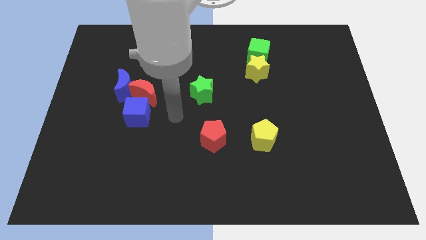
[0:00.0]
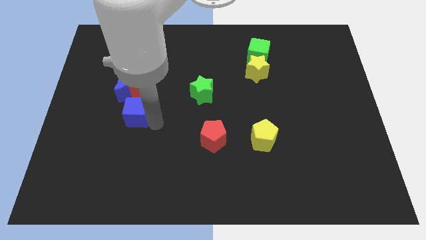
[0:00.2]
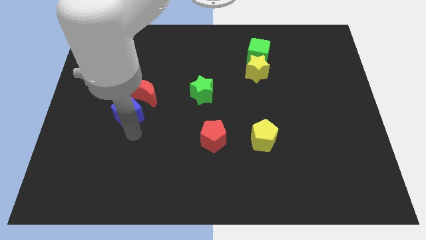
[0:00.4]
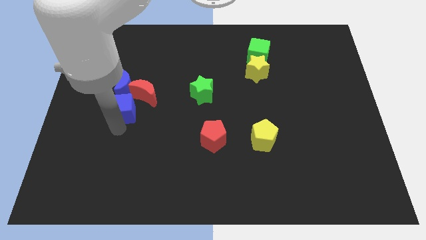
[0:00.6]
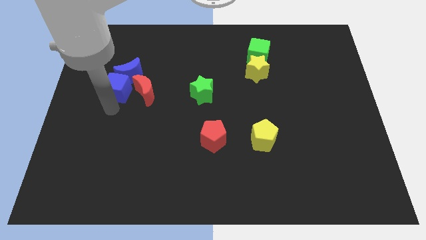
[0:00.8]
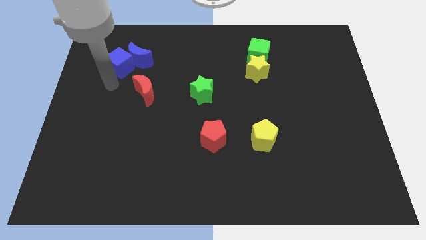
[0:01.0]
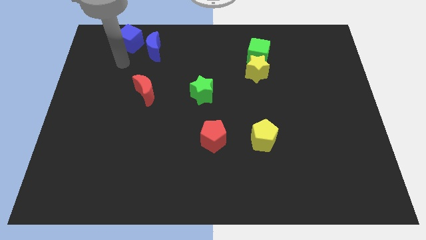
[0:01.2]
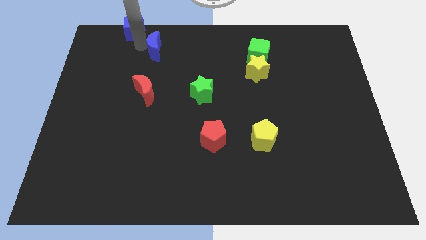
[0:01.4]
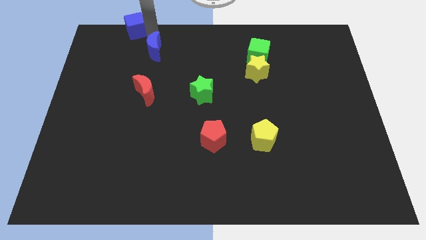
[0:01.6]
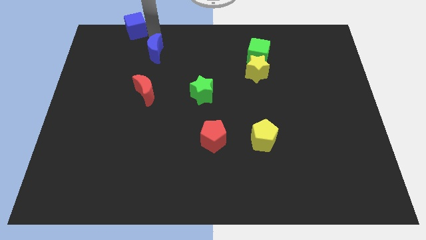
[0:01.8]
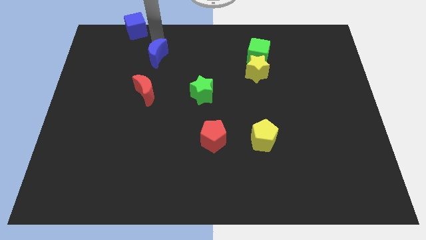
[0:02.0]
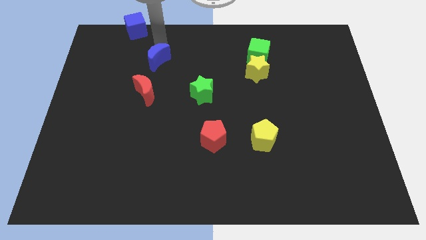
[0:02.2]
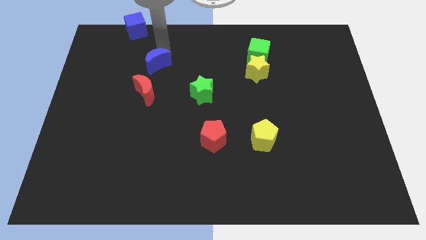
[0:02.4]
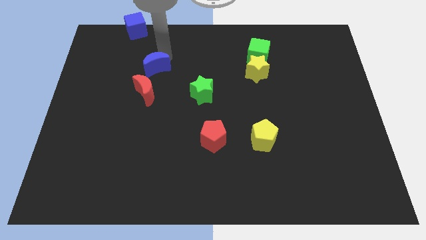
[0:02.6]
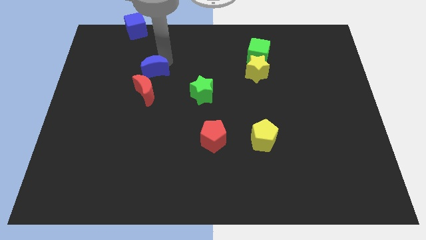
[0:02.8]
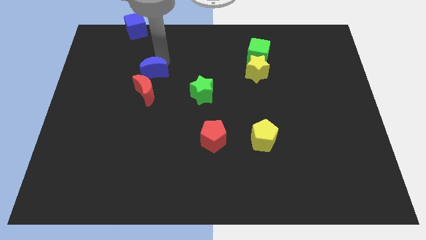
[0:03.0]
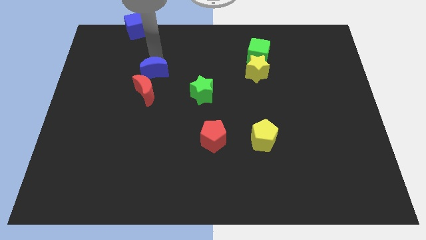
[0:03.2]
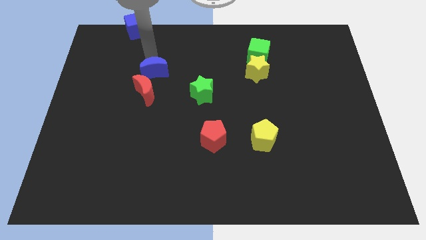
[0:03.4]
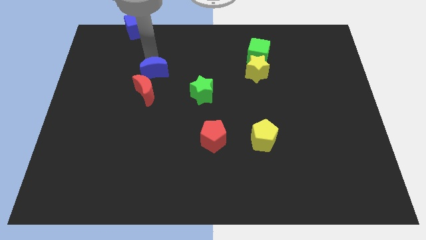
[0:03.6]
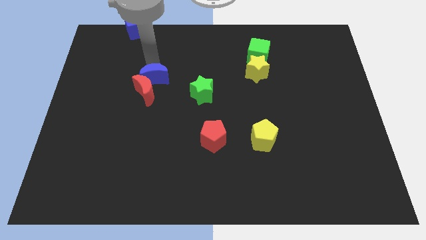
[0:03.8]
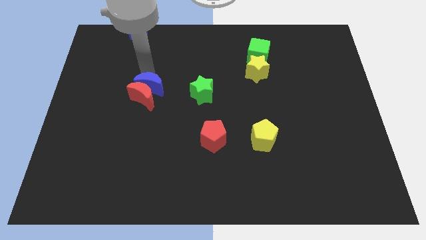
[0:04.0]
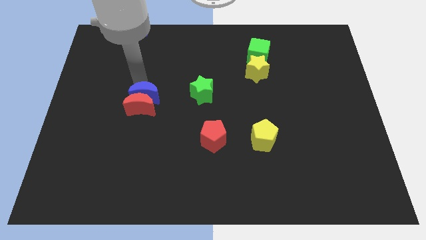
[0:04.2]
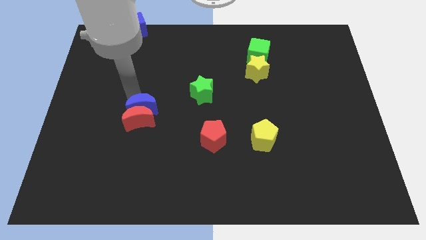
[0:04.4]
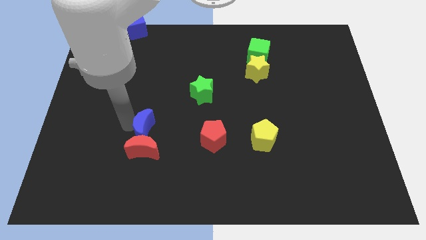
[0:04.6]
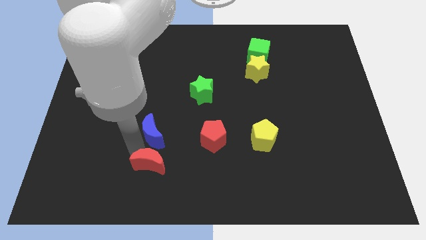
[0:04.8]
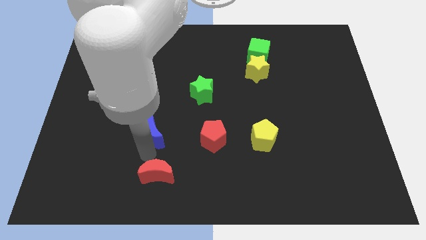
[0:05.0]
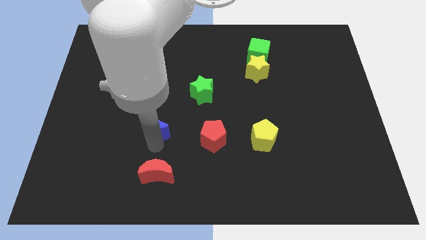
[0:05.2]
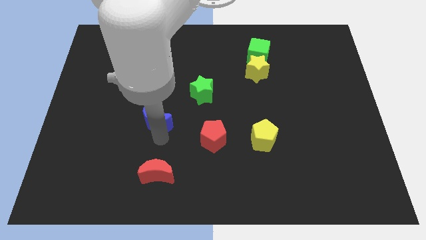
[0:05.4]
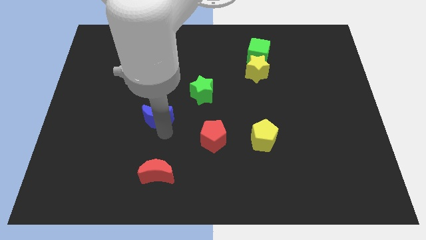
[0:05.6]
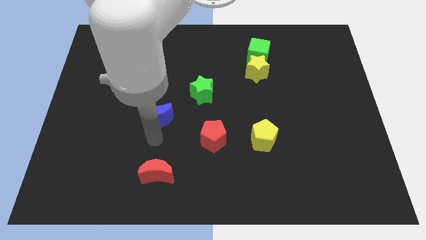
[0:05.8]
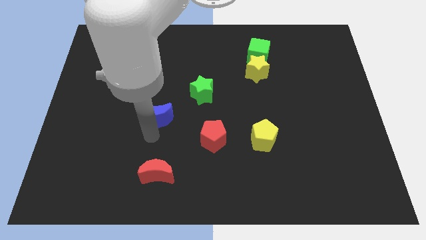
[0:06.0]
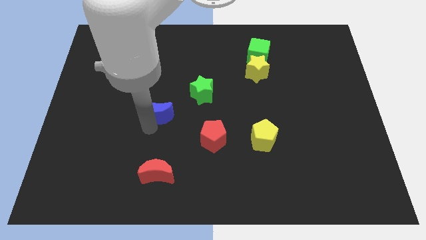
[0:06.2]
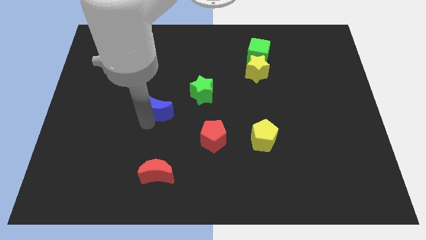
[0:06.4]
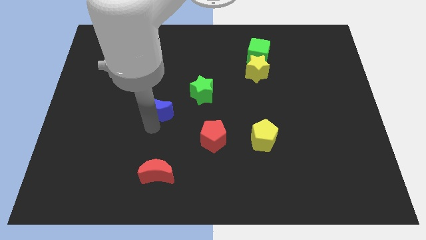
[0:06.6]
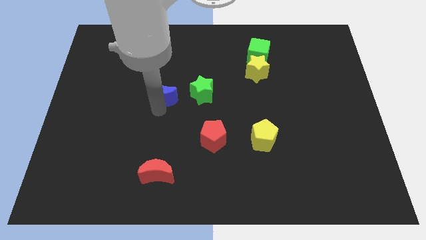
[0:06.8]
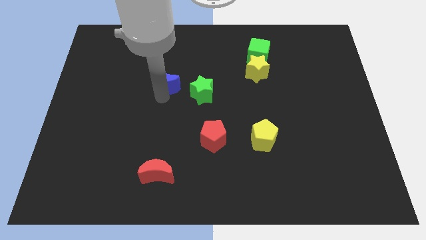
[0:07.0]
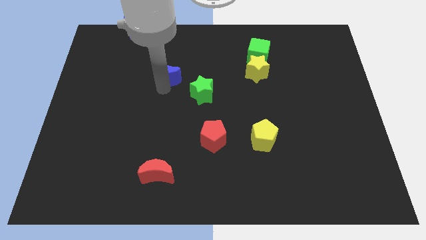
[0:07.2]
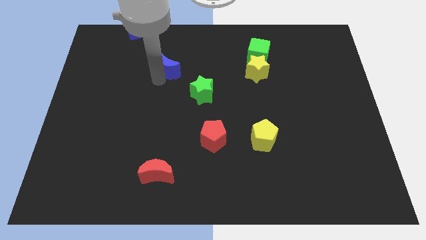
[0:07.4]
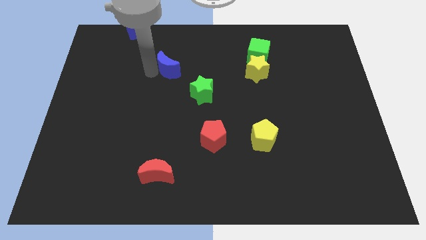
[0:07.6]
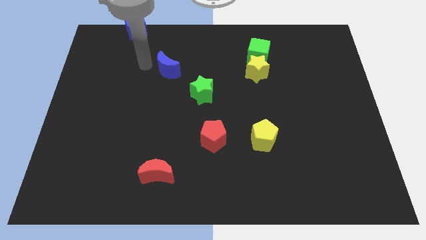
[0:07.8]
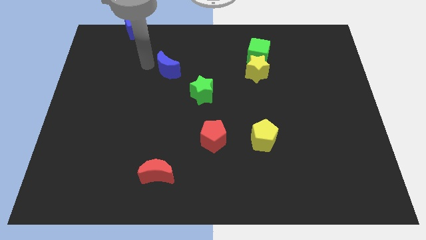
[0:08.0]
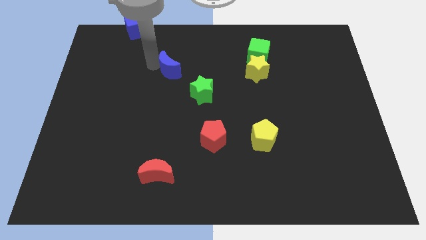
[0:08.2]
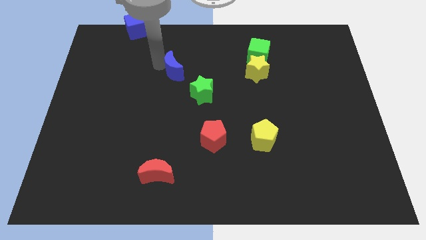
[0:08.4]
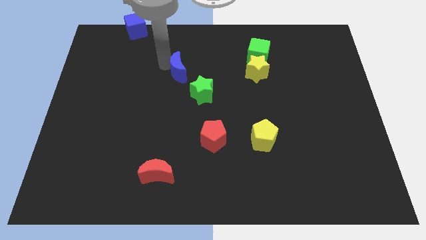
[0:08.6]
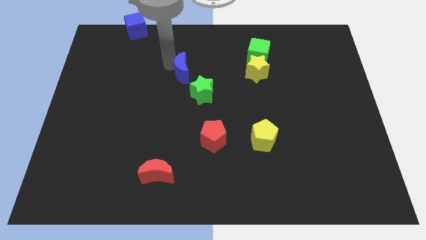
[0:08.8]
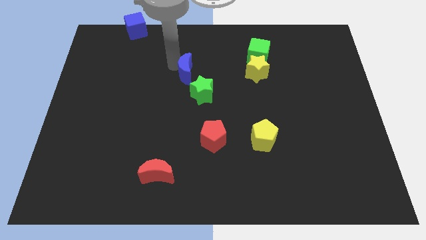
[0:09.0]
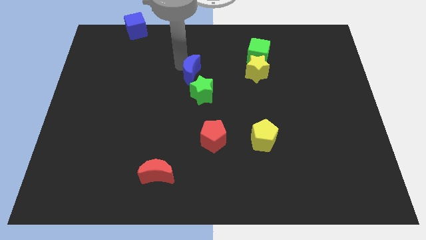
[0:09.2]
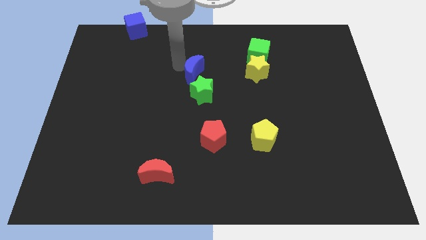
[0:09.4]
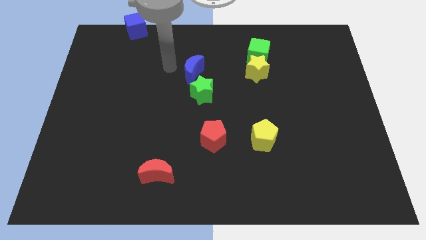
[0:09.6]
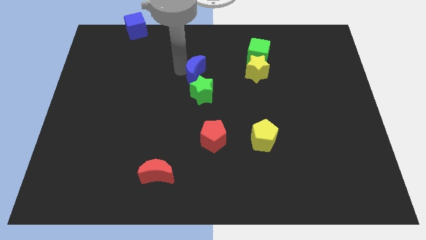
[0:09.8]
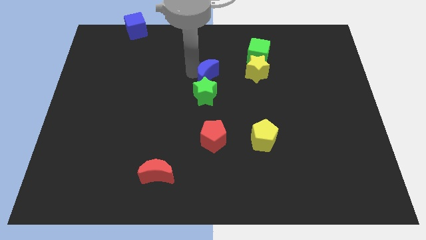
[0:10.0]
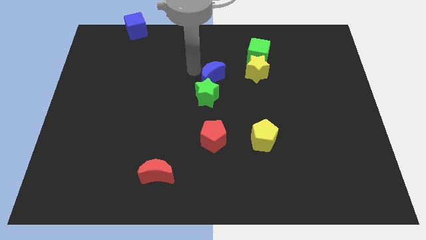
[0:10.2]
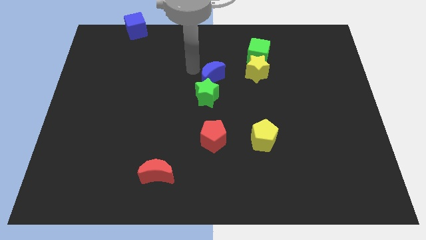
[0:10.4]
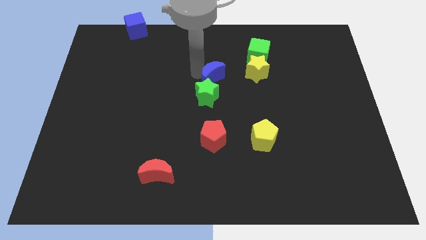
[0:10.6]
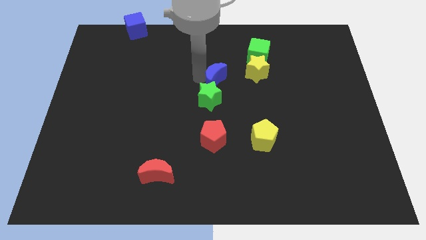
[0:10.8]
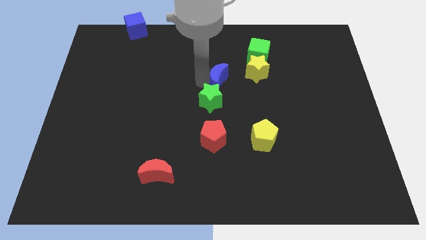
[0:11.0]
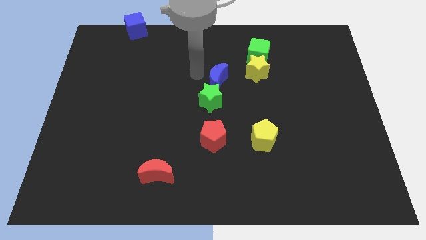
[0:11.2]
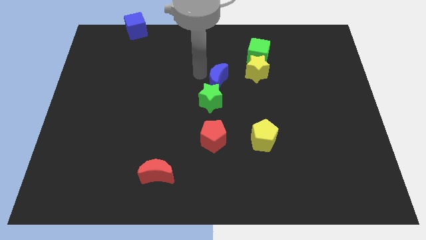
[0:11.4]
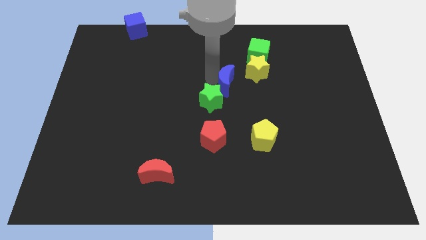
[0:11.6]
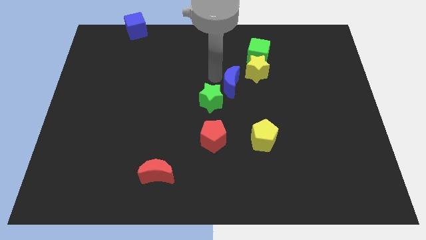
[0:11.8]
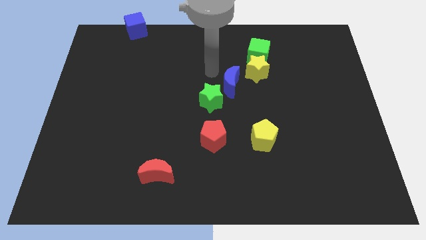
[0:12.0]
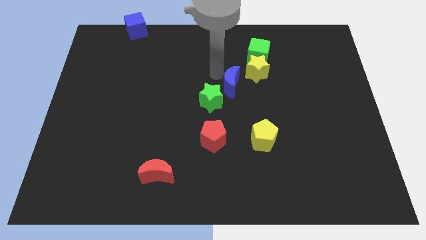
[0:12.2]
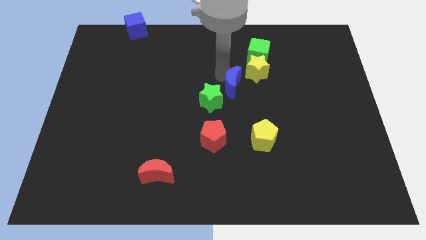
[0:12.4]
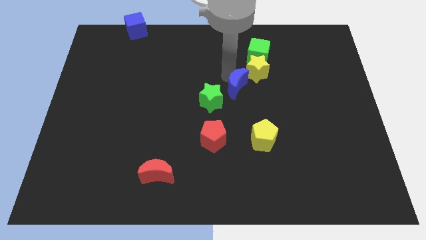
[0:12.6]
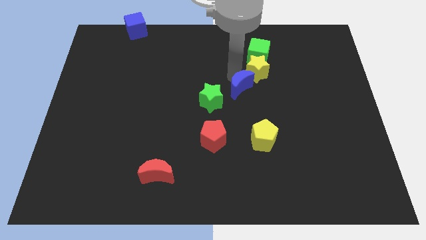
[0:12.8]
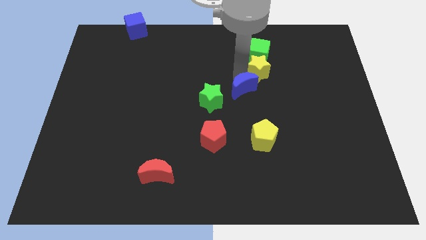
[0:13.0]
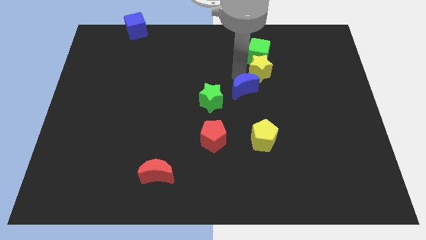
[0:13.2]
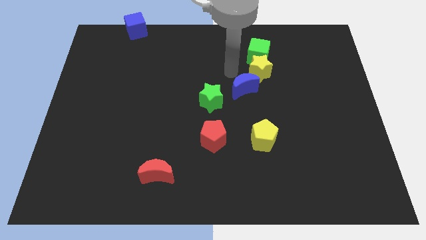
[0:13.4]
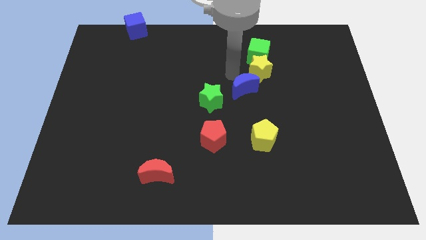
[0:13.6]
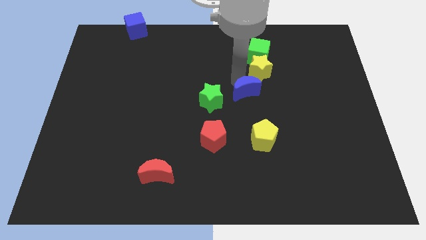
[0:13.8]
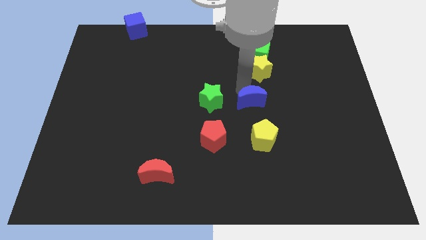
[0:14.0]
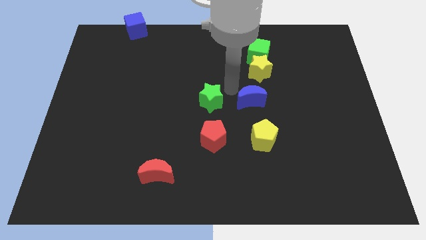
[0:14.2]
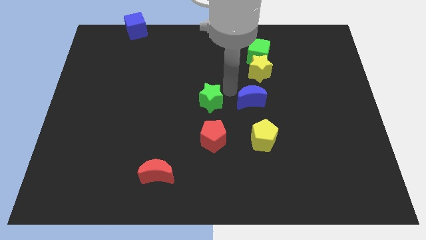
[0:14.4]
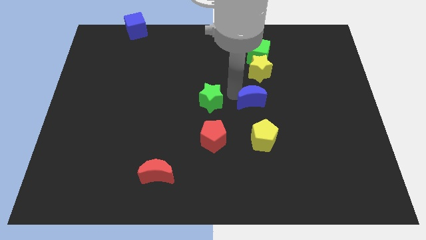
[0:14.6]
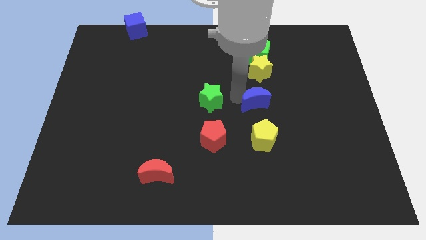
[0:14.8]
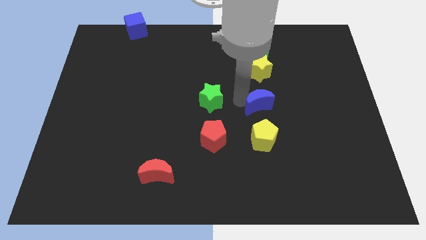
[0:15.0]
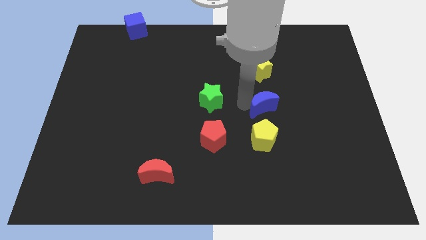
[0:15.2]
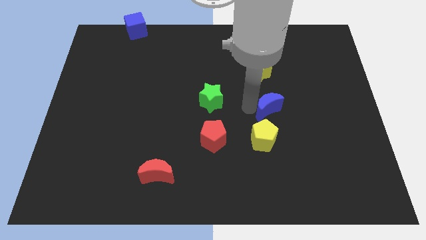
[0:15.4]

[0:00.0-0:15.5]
push the blue moon to the top right side of the yellow pentagon
